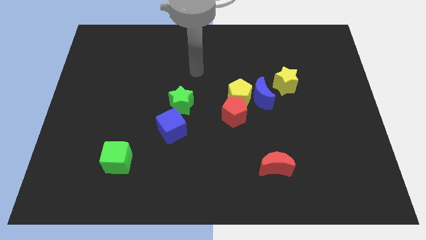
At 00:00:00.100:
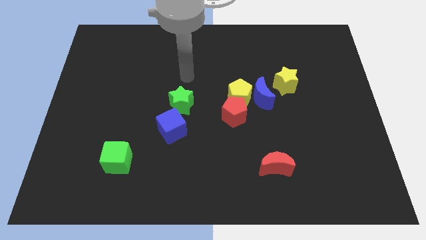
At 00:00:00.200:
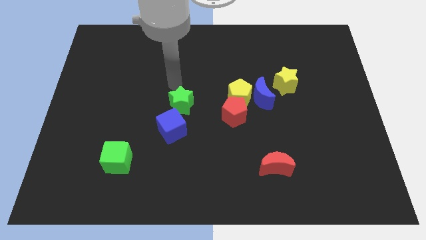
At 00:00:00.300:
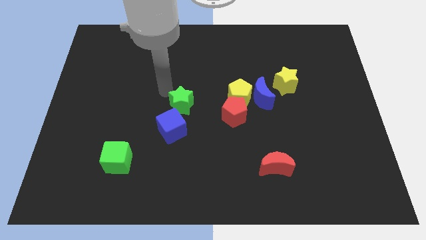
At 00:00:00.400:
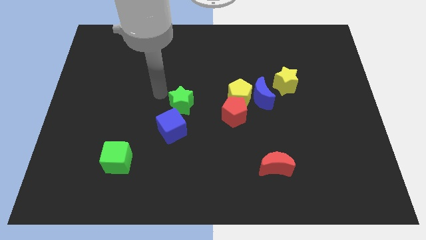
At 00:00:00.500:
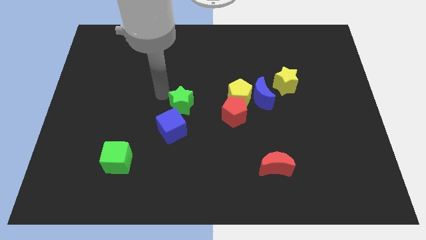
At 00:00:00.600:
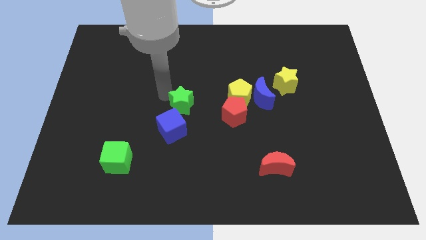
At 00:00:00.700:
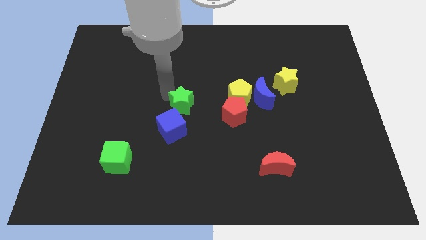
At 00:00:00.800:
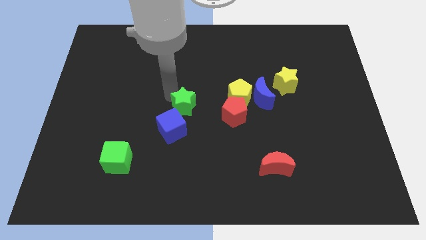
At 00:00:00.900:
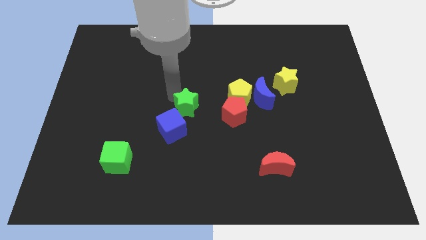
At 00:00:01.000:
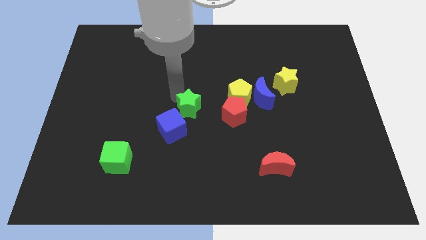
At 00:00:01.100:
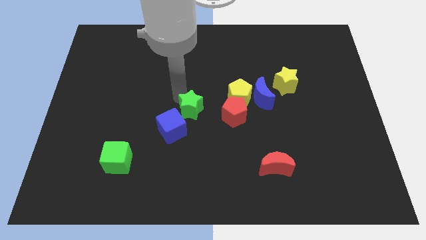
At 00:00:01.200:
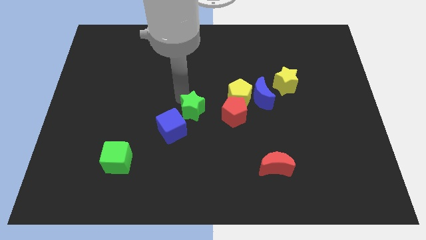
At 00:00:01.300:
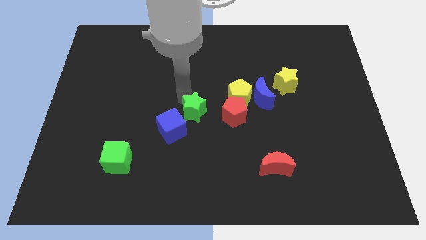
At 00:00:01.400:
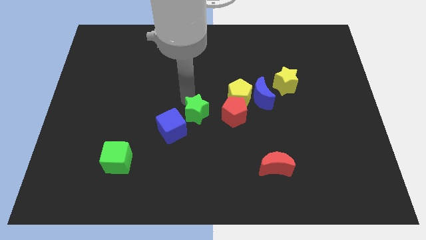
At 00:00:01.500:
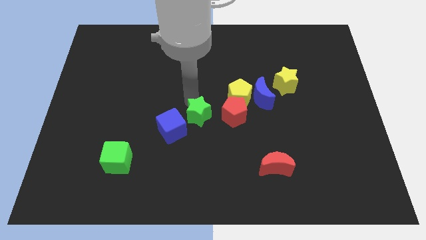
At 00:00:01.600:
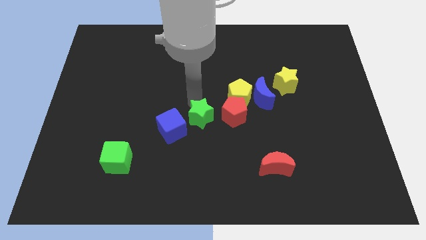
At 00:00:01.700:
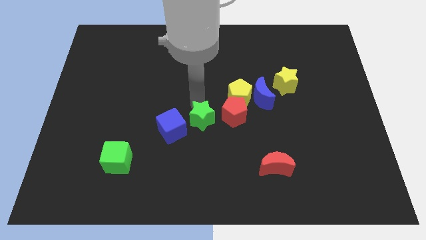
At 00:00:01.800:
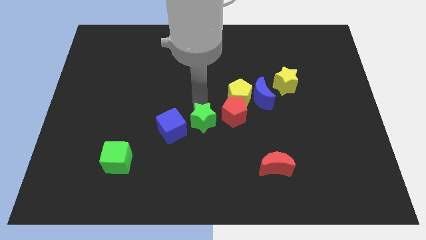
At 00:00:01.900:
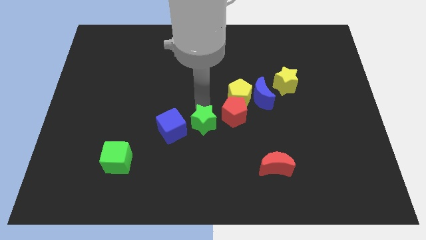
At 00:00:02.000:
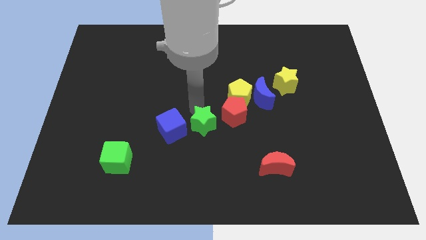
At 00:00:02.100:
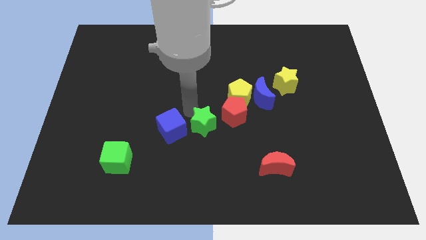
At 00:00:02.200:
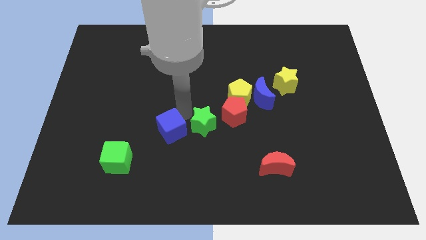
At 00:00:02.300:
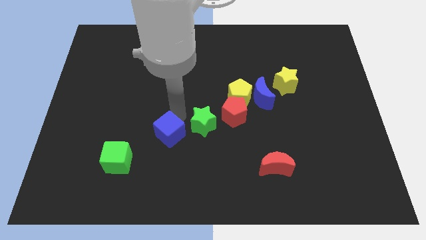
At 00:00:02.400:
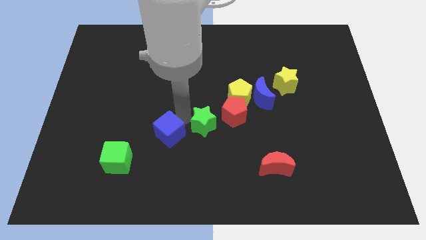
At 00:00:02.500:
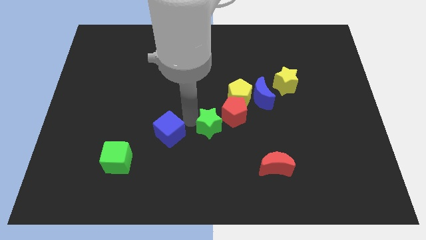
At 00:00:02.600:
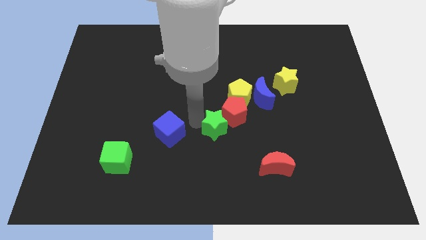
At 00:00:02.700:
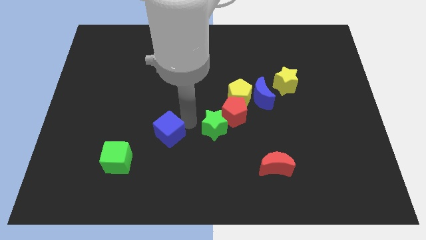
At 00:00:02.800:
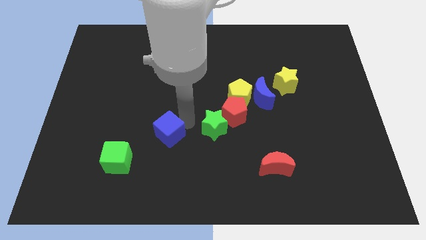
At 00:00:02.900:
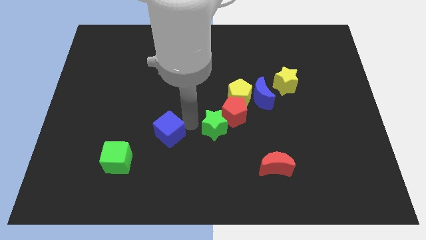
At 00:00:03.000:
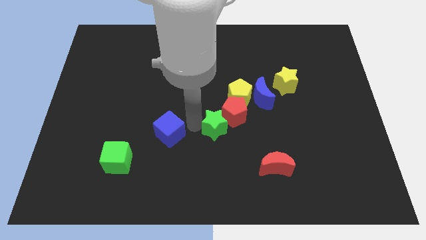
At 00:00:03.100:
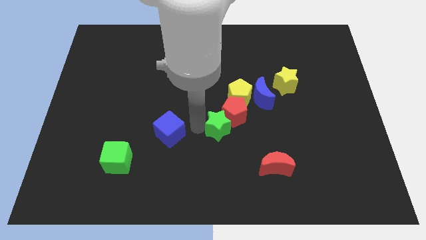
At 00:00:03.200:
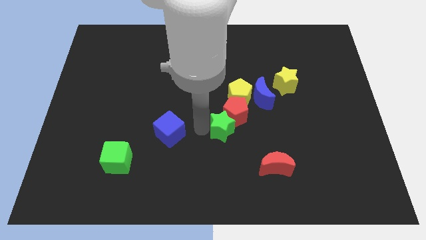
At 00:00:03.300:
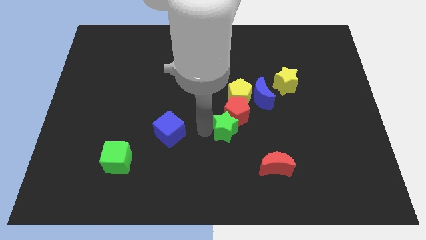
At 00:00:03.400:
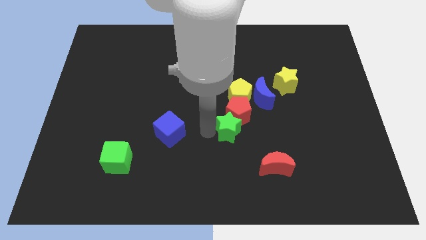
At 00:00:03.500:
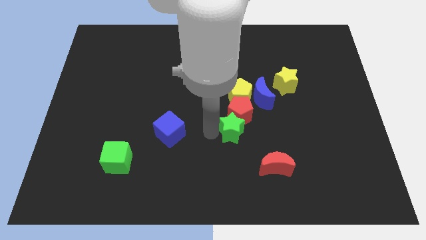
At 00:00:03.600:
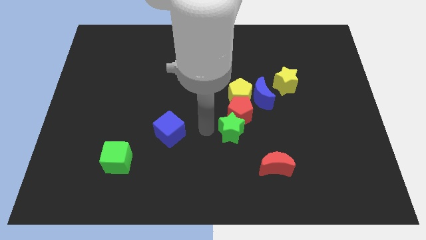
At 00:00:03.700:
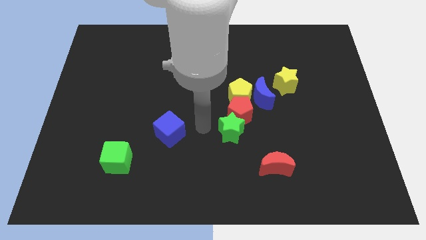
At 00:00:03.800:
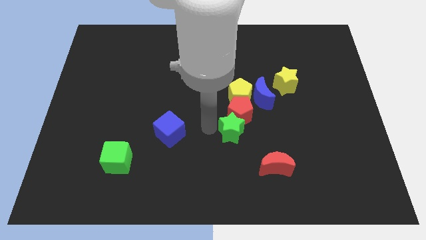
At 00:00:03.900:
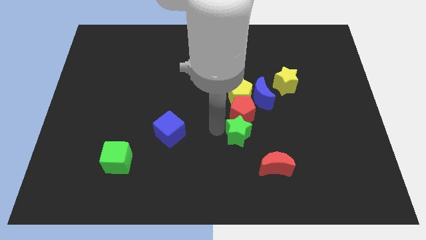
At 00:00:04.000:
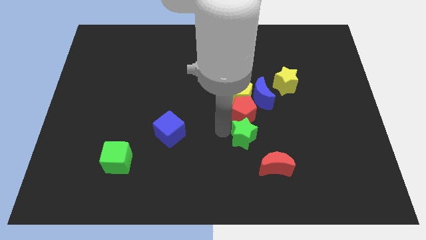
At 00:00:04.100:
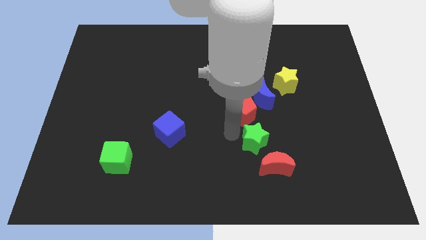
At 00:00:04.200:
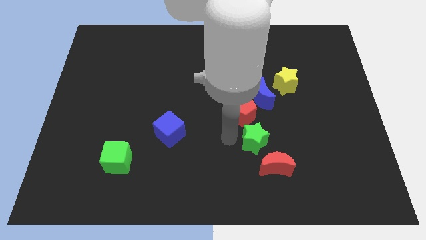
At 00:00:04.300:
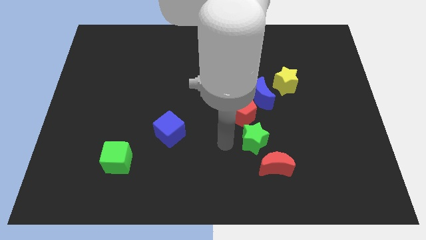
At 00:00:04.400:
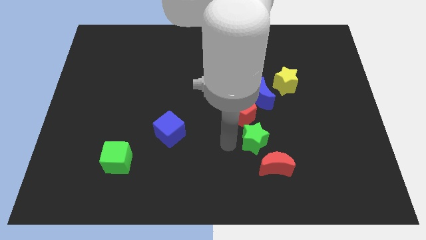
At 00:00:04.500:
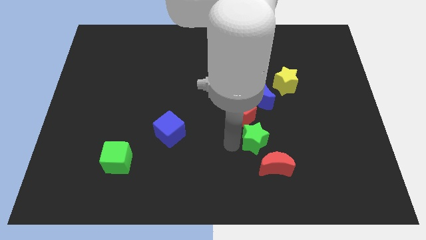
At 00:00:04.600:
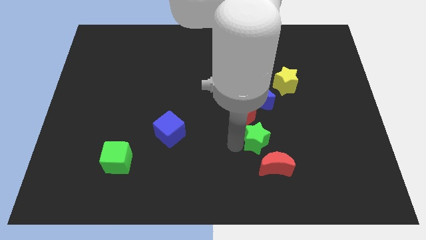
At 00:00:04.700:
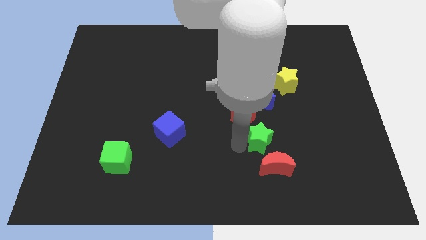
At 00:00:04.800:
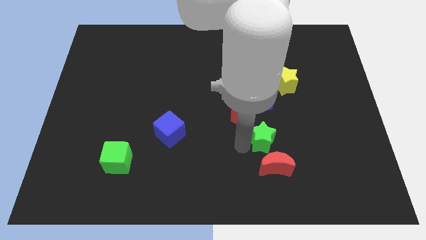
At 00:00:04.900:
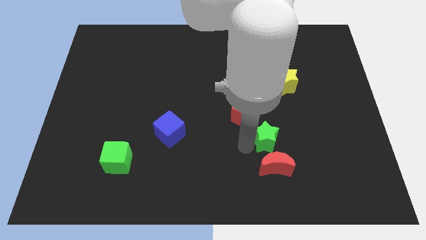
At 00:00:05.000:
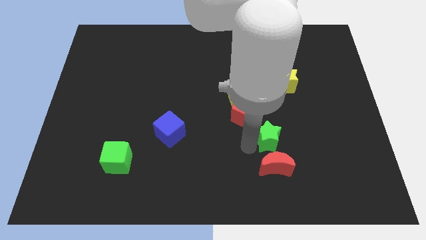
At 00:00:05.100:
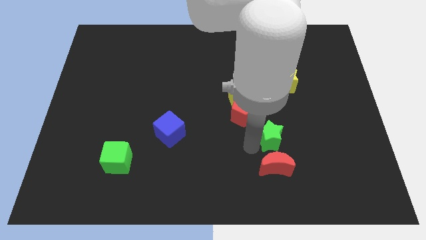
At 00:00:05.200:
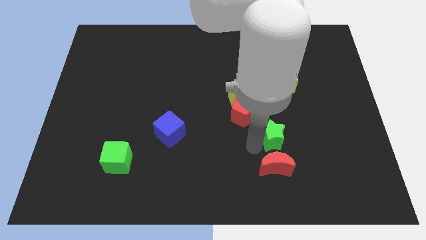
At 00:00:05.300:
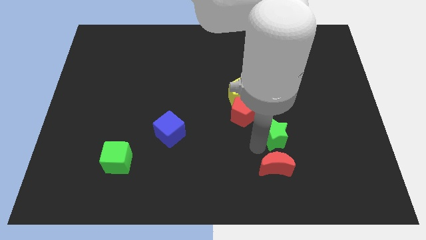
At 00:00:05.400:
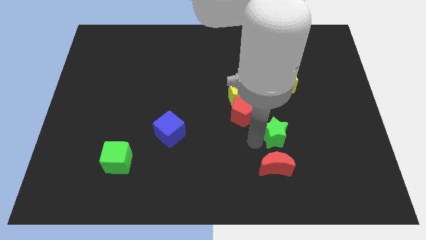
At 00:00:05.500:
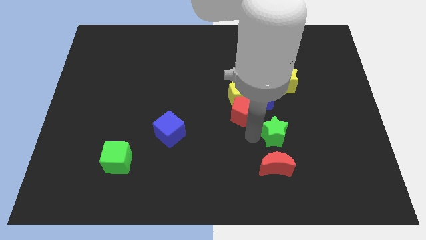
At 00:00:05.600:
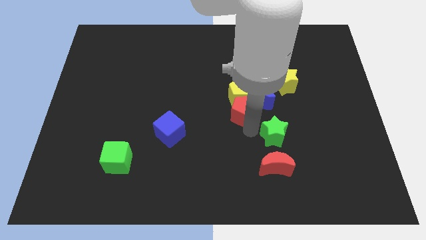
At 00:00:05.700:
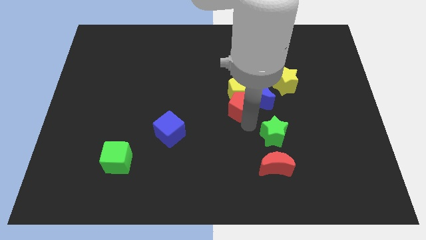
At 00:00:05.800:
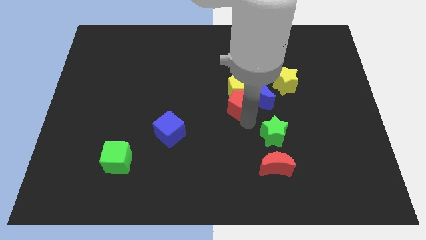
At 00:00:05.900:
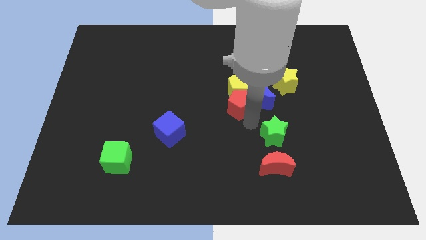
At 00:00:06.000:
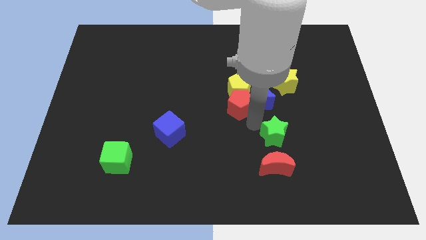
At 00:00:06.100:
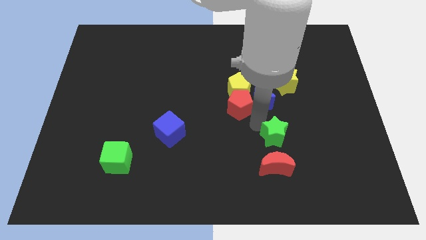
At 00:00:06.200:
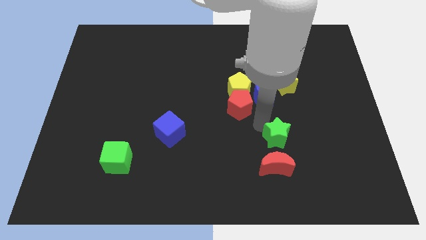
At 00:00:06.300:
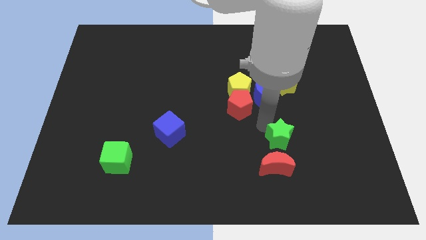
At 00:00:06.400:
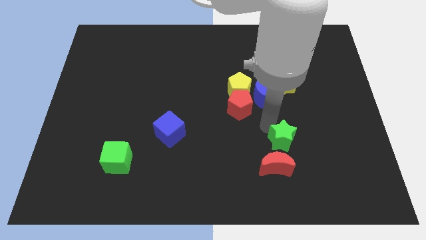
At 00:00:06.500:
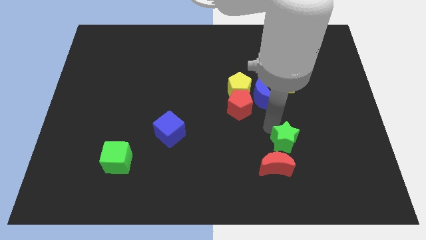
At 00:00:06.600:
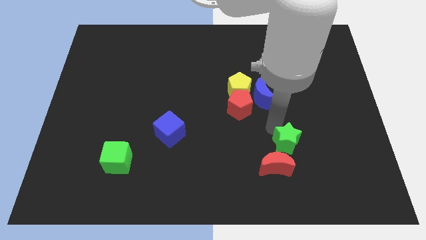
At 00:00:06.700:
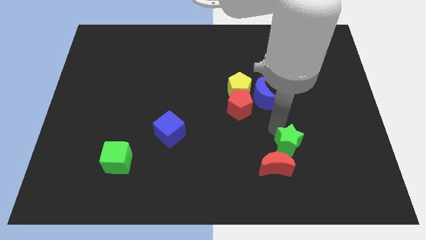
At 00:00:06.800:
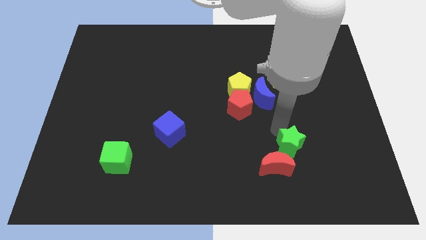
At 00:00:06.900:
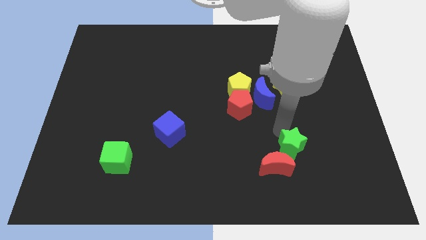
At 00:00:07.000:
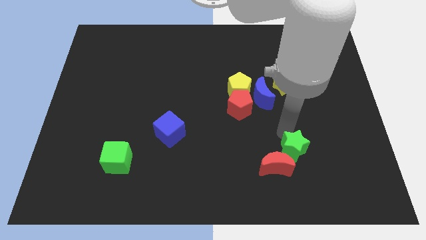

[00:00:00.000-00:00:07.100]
push the green star to the right side of the red moon
